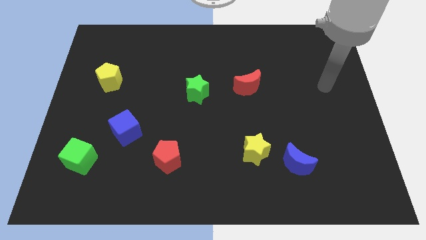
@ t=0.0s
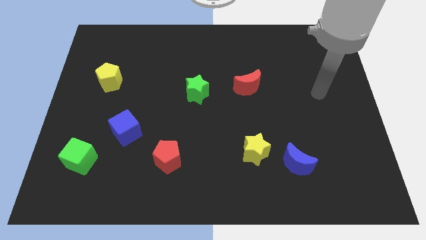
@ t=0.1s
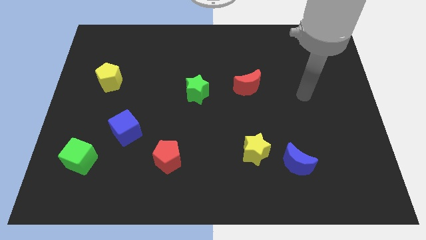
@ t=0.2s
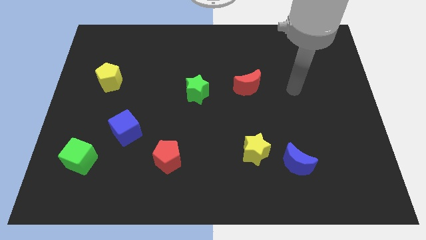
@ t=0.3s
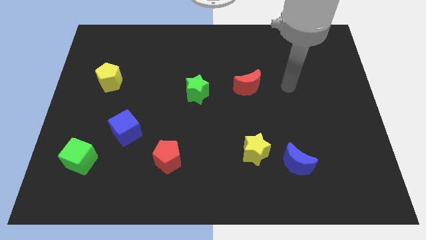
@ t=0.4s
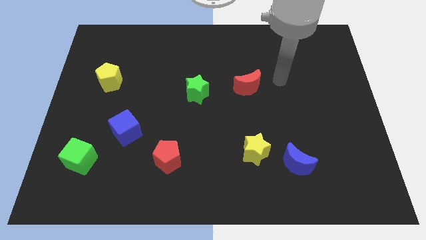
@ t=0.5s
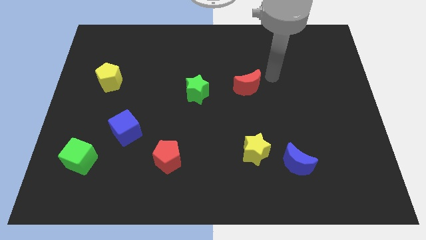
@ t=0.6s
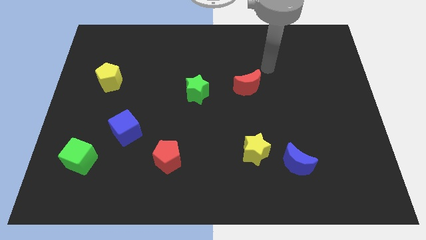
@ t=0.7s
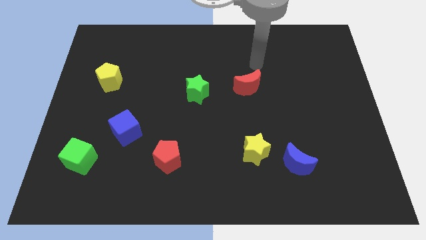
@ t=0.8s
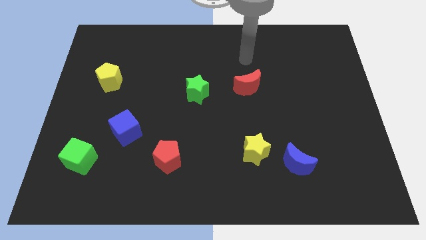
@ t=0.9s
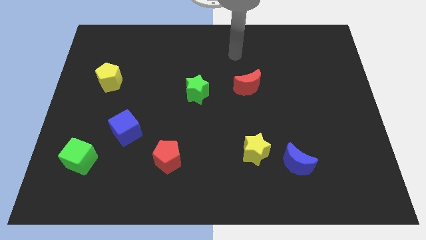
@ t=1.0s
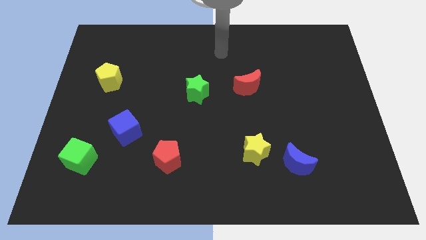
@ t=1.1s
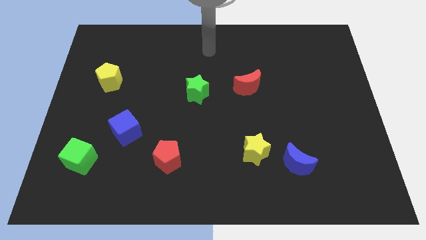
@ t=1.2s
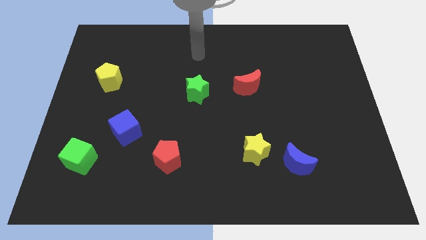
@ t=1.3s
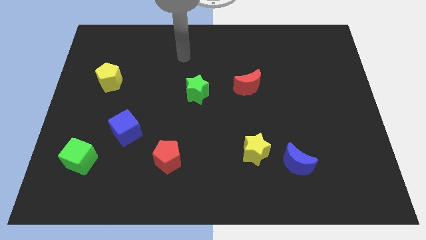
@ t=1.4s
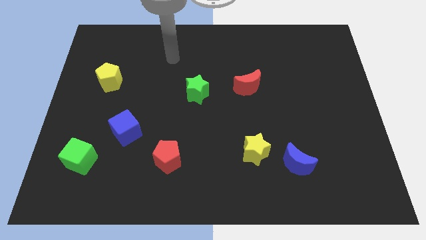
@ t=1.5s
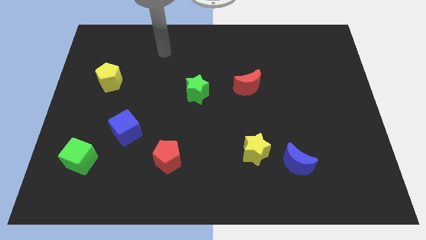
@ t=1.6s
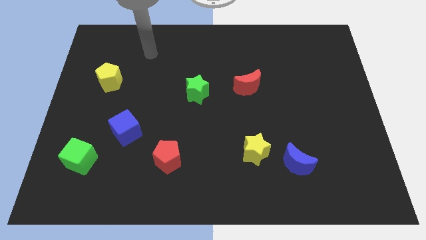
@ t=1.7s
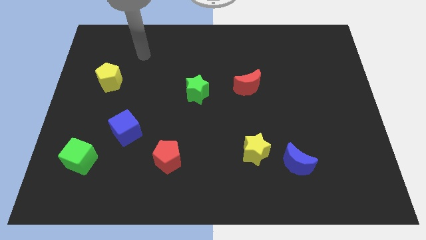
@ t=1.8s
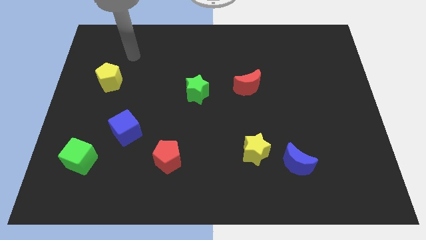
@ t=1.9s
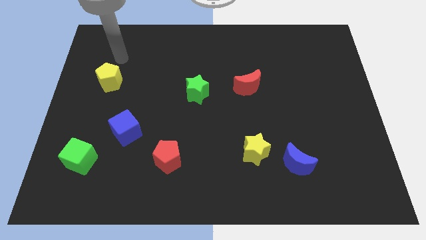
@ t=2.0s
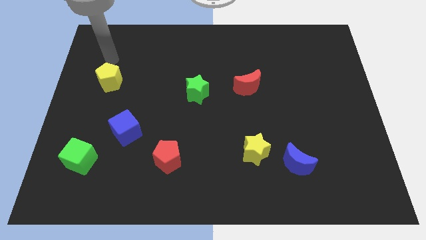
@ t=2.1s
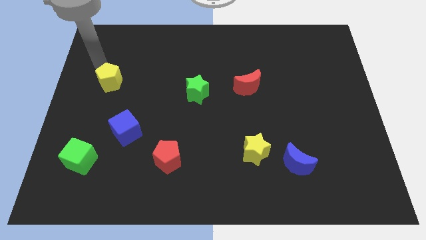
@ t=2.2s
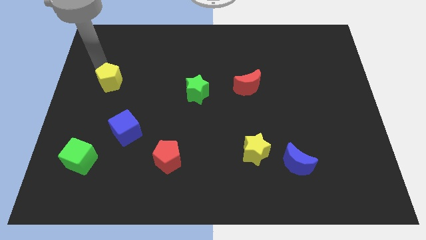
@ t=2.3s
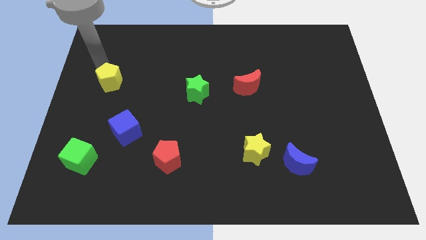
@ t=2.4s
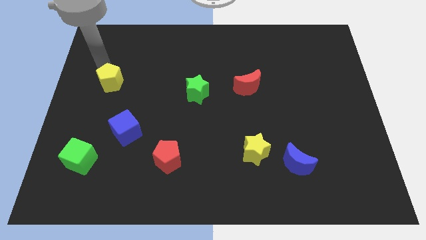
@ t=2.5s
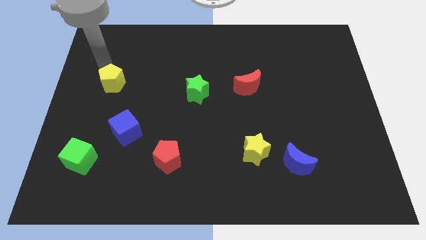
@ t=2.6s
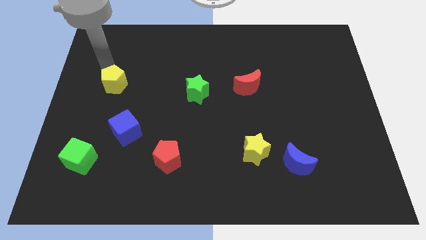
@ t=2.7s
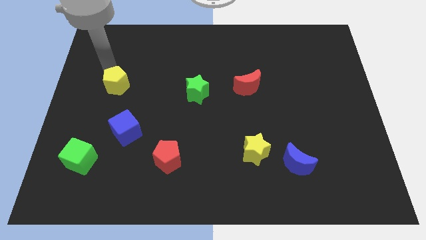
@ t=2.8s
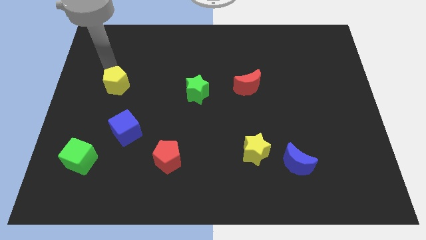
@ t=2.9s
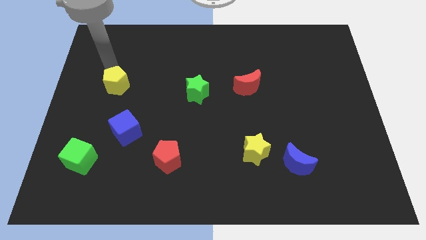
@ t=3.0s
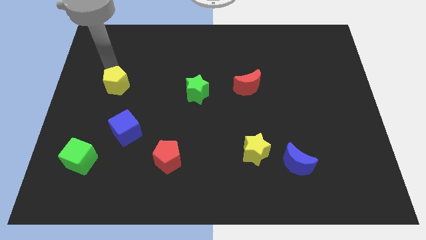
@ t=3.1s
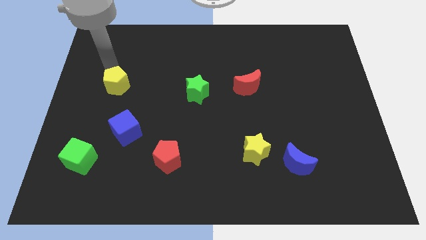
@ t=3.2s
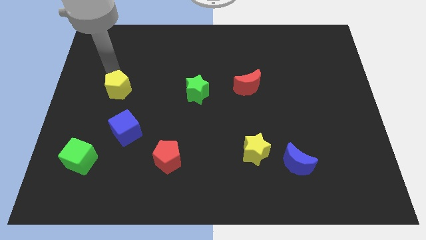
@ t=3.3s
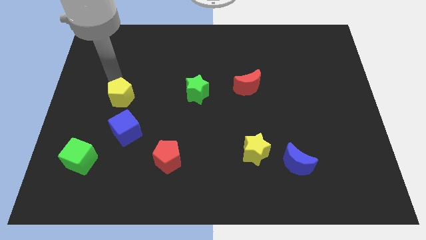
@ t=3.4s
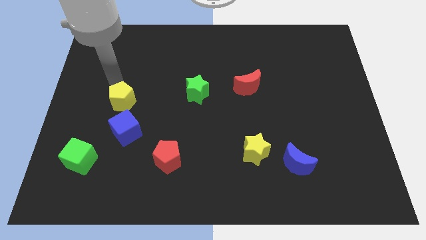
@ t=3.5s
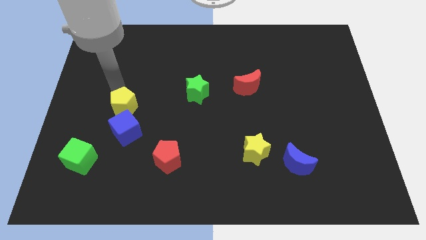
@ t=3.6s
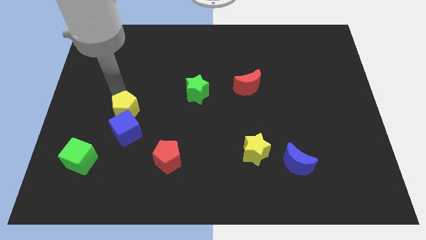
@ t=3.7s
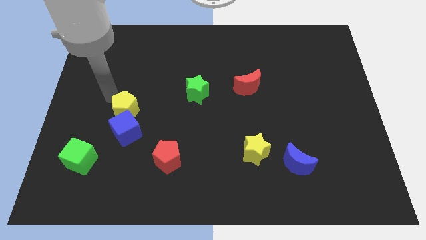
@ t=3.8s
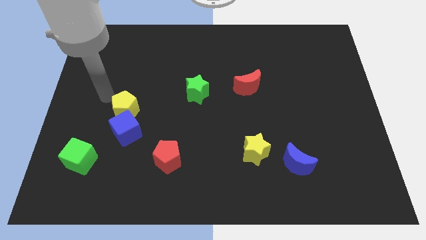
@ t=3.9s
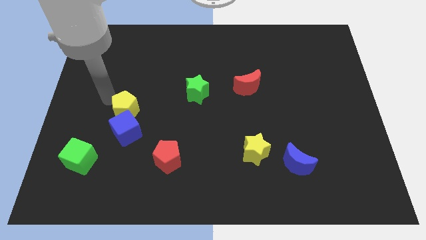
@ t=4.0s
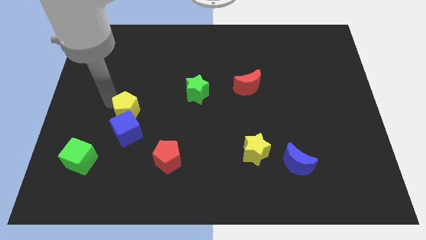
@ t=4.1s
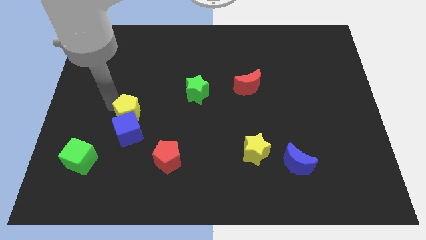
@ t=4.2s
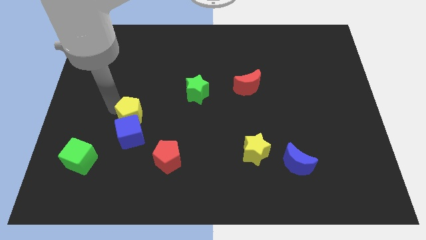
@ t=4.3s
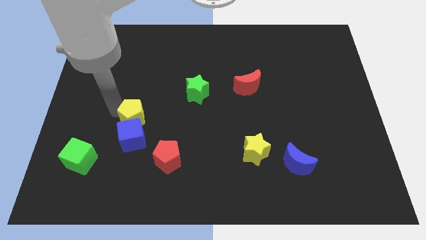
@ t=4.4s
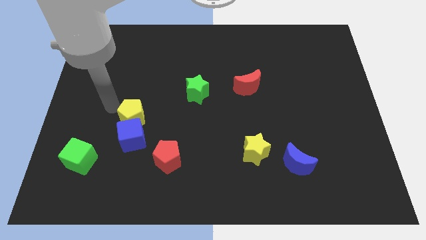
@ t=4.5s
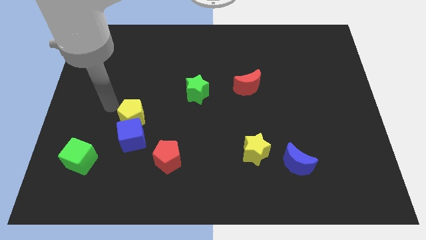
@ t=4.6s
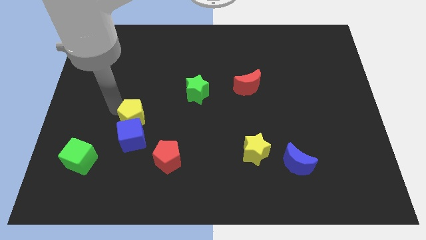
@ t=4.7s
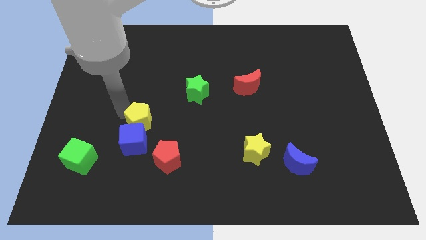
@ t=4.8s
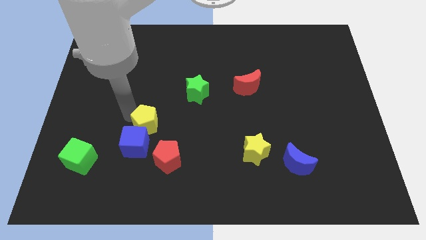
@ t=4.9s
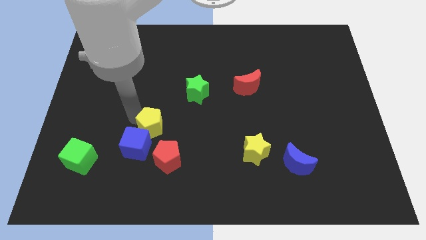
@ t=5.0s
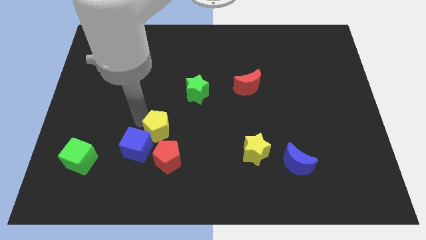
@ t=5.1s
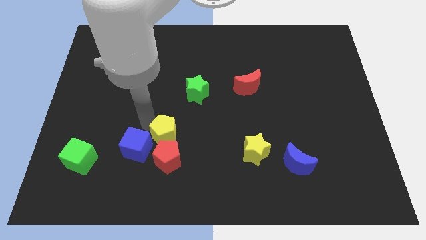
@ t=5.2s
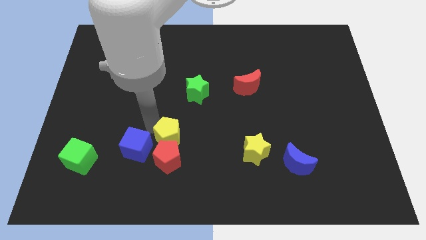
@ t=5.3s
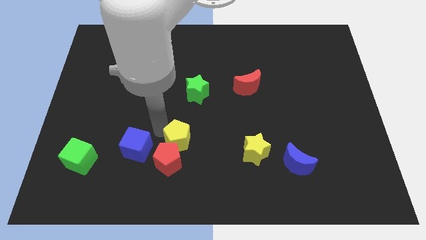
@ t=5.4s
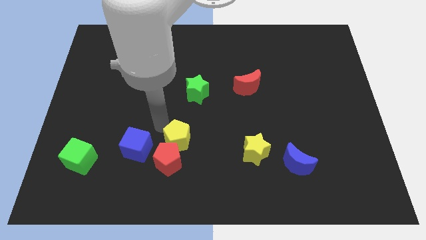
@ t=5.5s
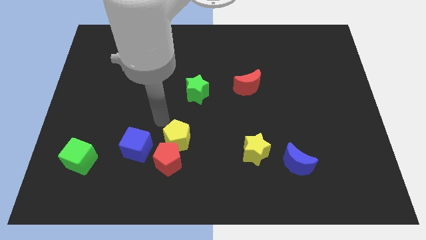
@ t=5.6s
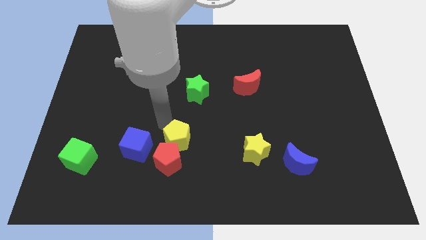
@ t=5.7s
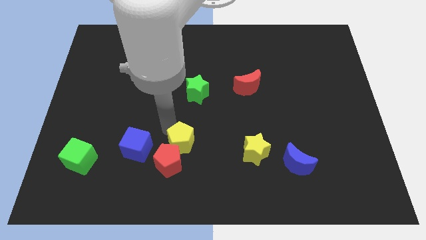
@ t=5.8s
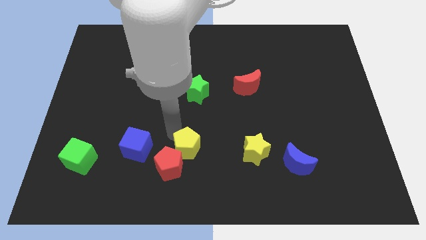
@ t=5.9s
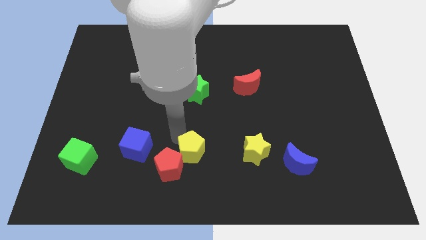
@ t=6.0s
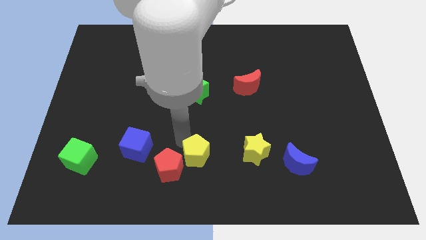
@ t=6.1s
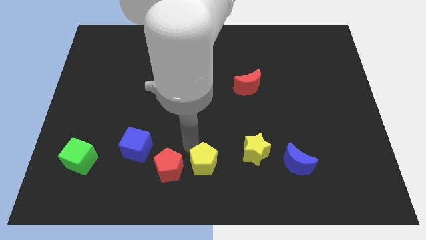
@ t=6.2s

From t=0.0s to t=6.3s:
push the yellow pentagon to the bottom

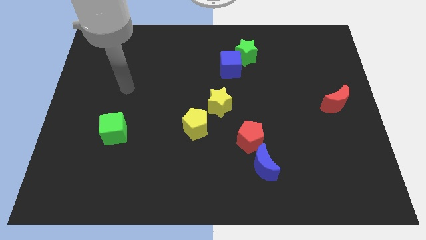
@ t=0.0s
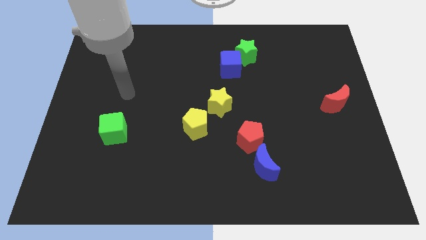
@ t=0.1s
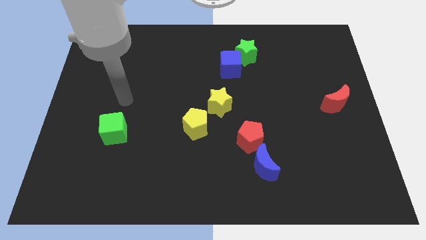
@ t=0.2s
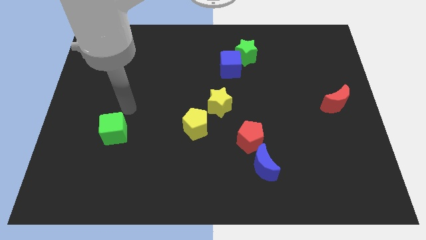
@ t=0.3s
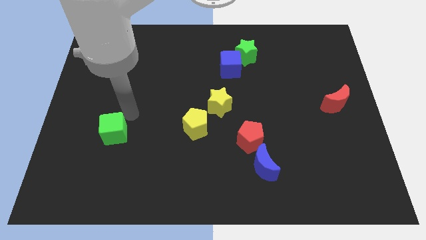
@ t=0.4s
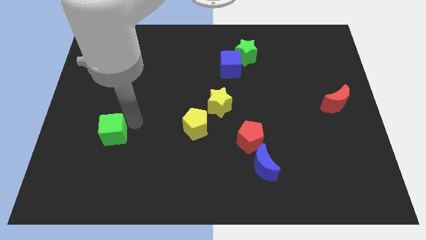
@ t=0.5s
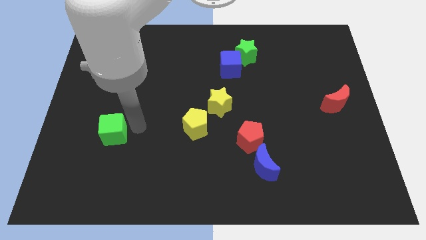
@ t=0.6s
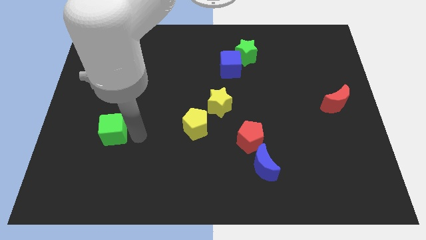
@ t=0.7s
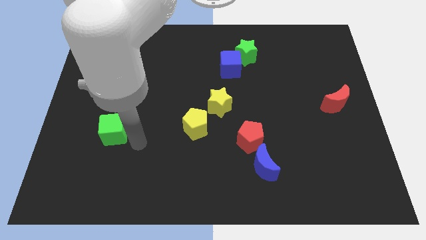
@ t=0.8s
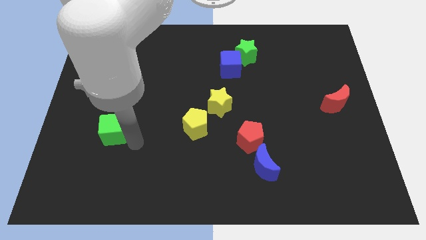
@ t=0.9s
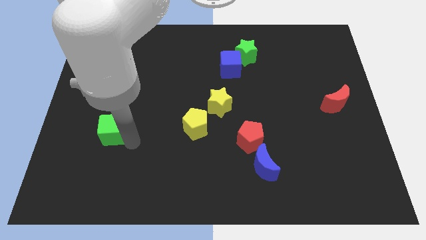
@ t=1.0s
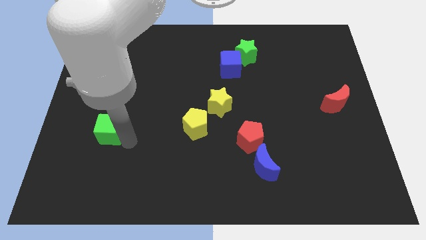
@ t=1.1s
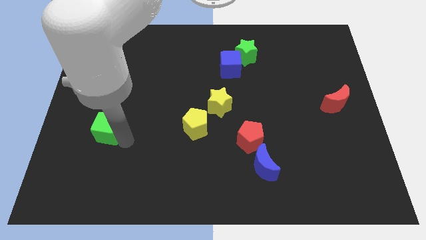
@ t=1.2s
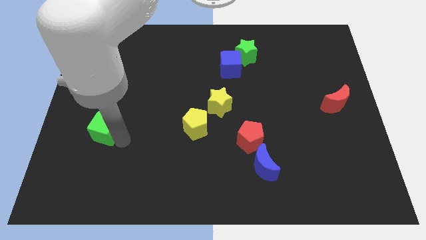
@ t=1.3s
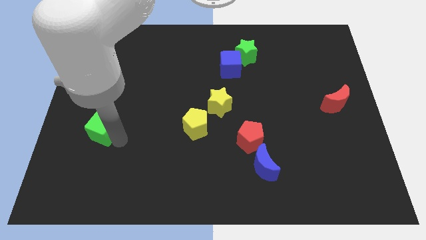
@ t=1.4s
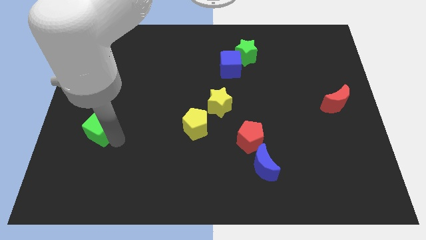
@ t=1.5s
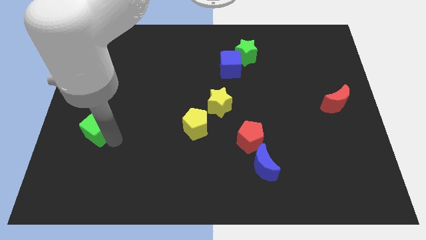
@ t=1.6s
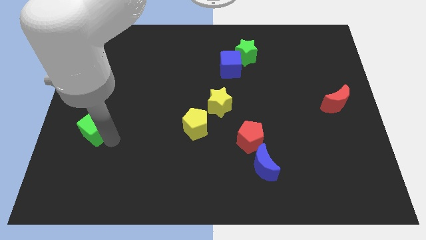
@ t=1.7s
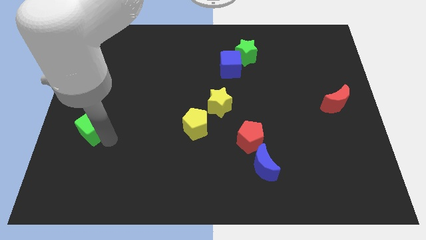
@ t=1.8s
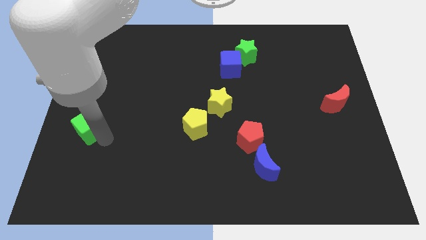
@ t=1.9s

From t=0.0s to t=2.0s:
slide the green cube to the left side of the board
